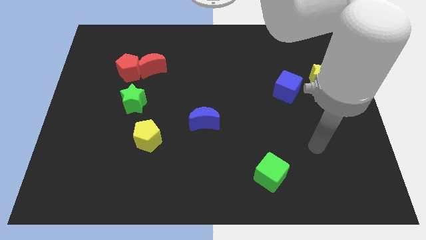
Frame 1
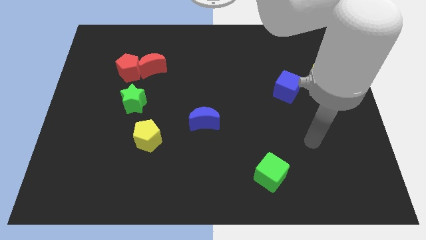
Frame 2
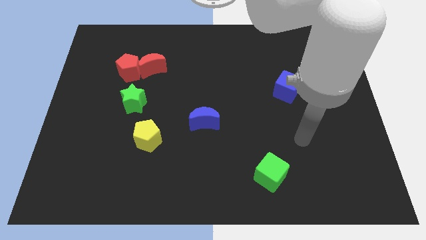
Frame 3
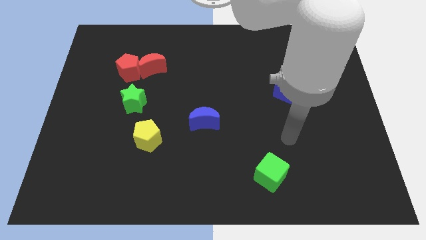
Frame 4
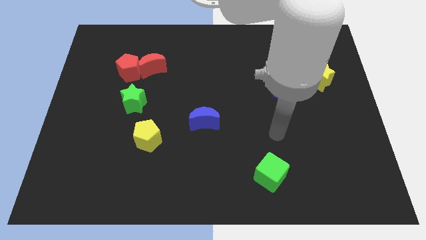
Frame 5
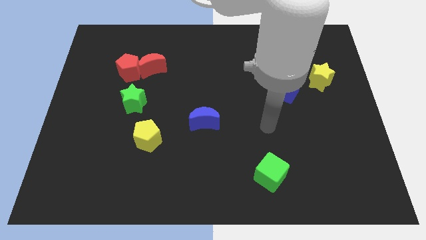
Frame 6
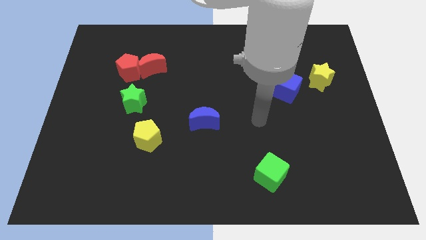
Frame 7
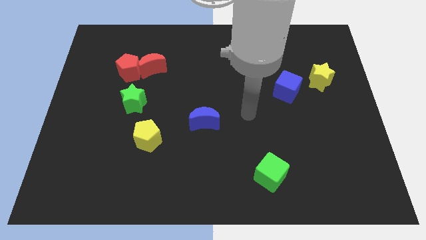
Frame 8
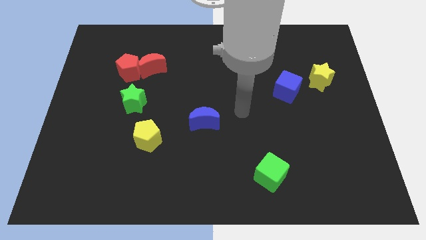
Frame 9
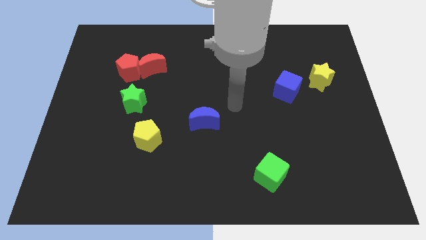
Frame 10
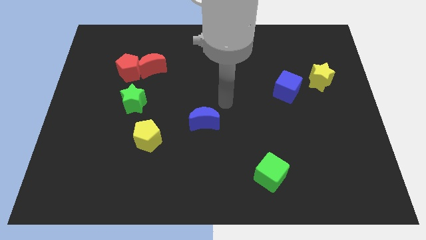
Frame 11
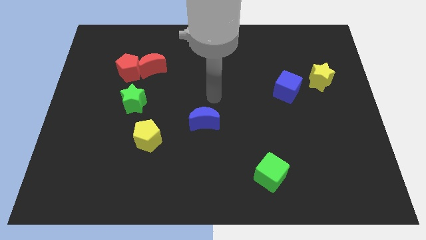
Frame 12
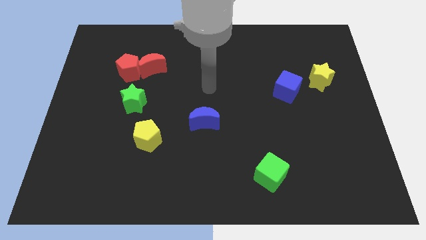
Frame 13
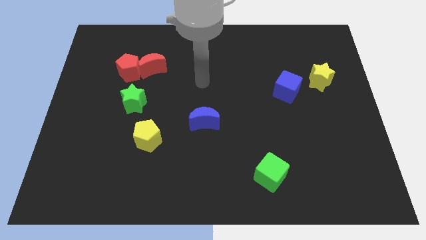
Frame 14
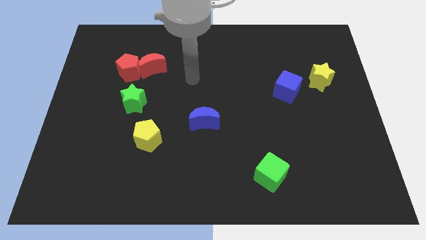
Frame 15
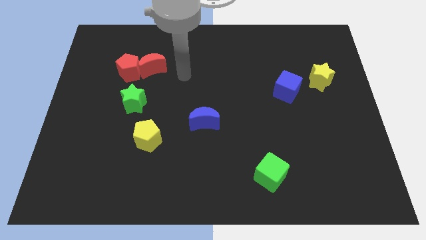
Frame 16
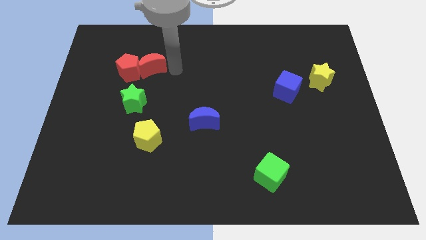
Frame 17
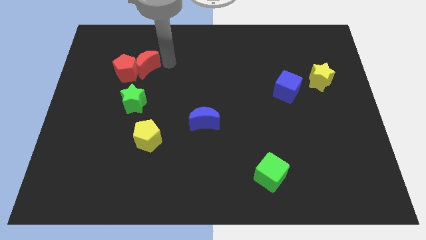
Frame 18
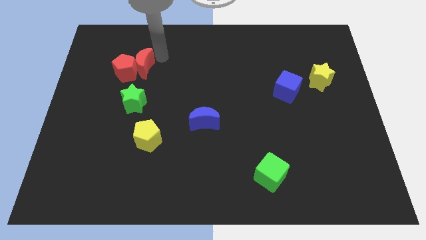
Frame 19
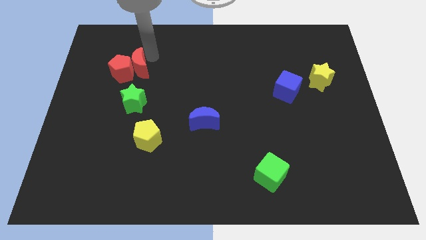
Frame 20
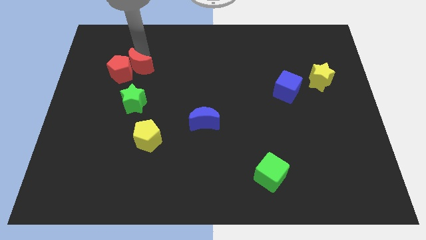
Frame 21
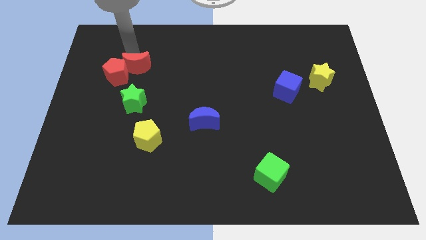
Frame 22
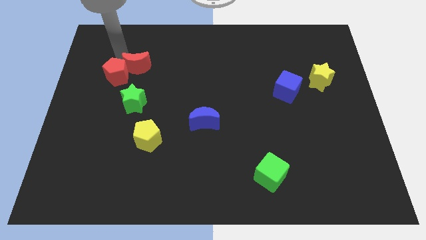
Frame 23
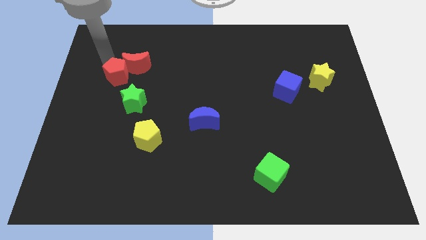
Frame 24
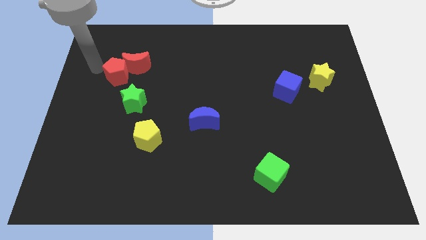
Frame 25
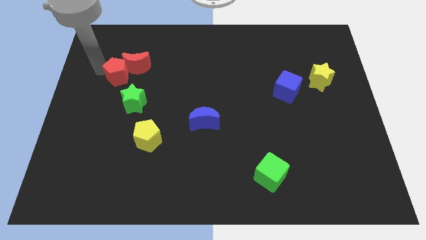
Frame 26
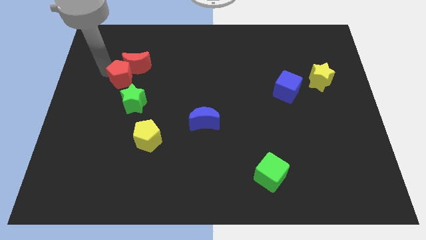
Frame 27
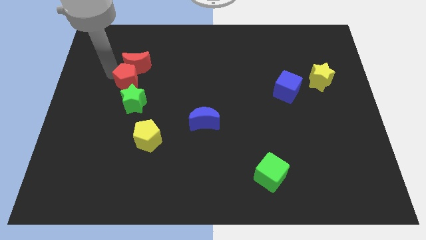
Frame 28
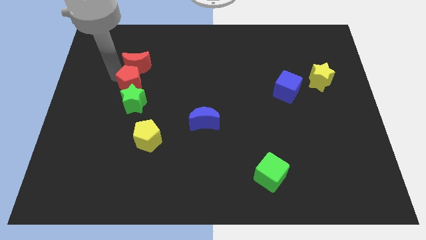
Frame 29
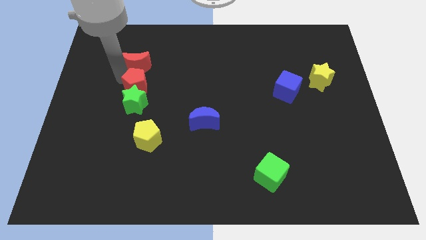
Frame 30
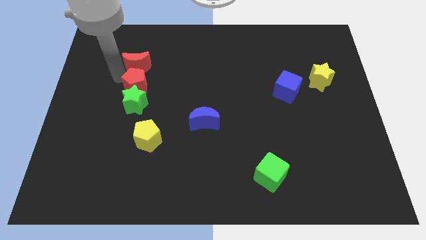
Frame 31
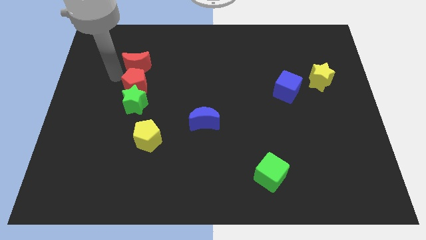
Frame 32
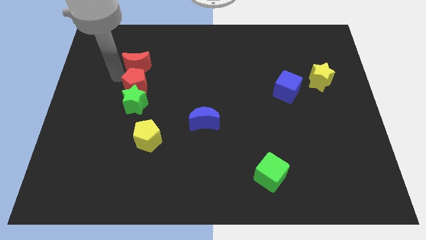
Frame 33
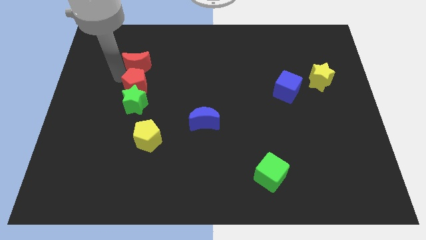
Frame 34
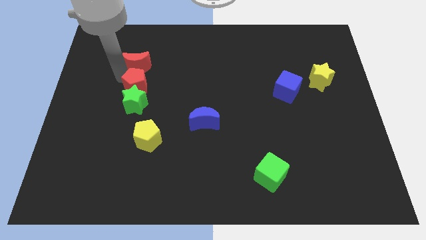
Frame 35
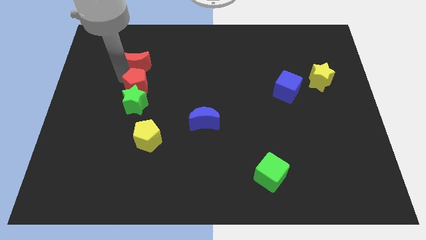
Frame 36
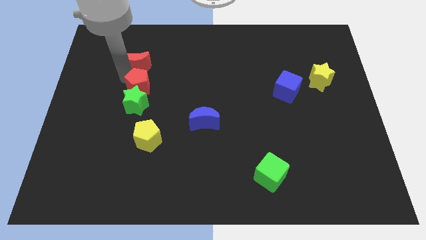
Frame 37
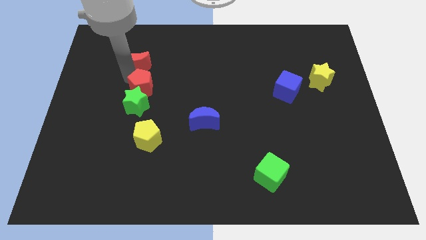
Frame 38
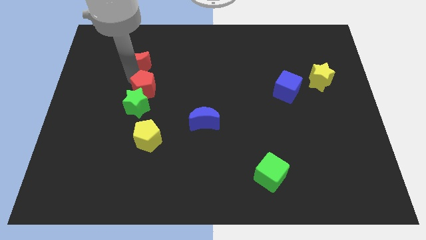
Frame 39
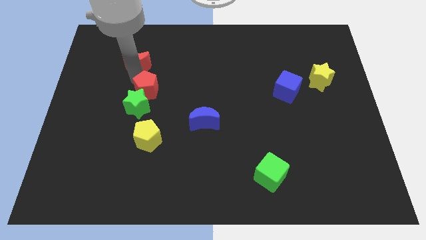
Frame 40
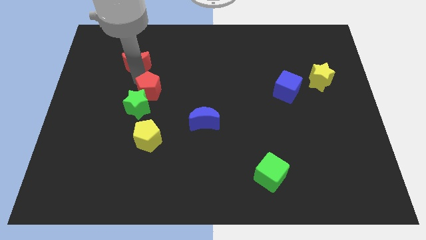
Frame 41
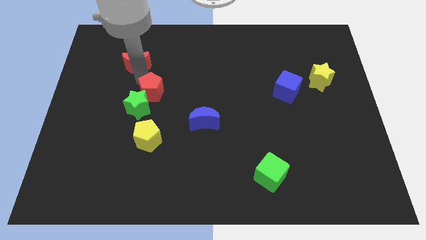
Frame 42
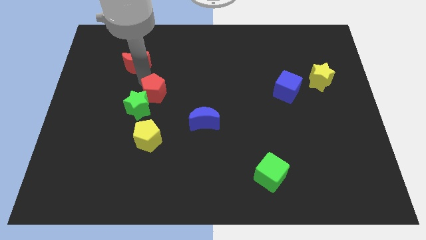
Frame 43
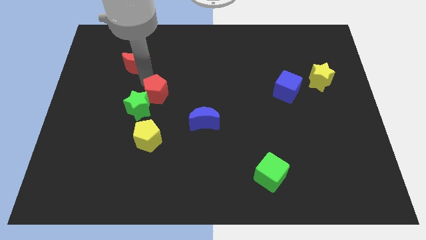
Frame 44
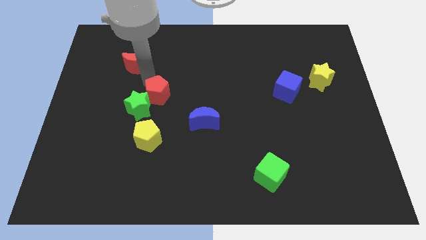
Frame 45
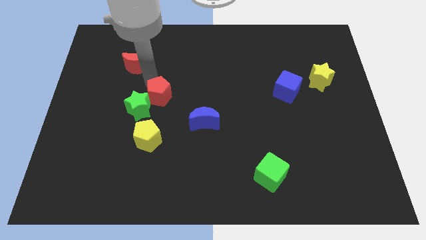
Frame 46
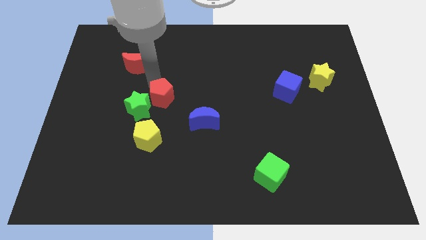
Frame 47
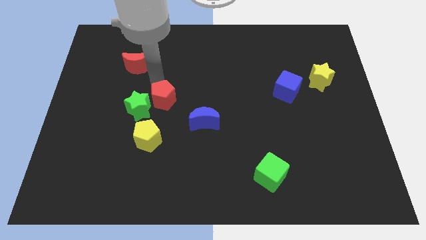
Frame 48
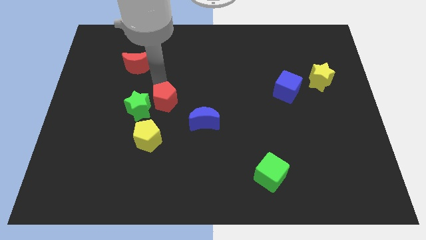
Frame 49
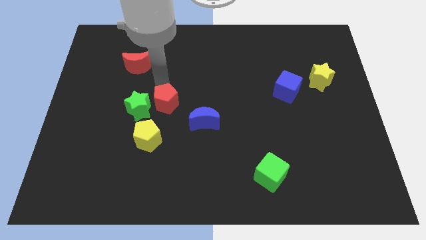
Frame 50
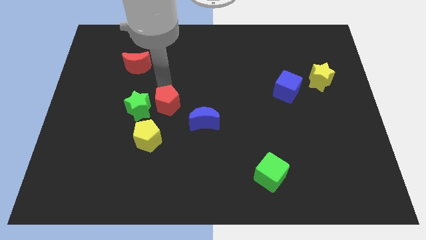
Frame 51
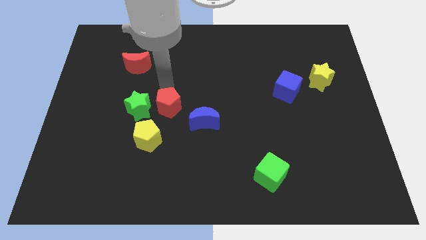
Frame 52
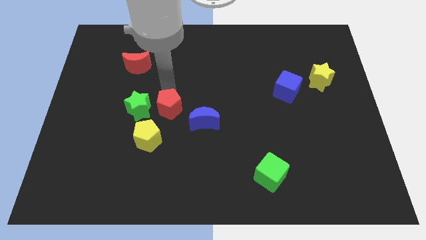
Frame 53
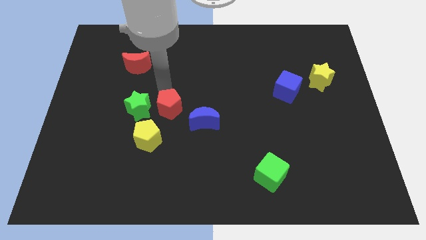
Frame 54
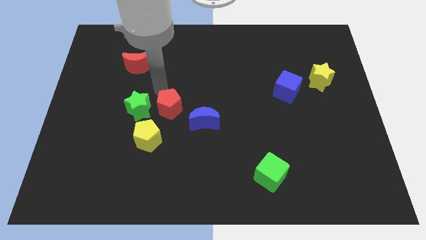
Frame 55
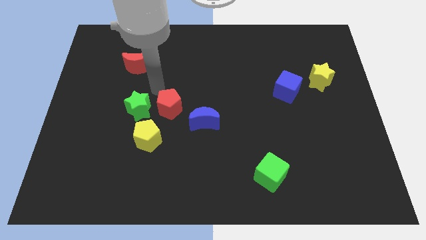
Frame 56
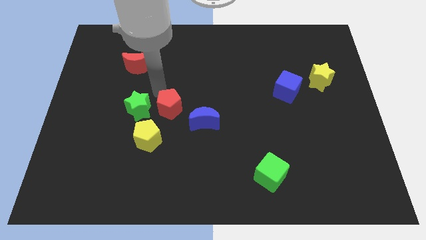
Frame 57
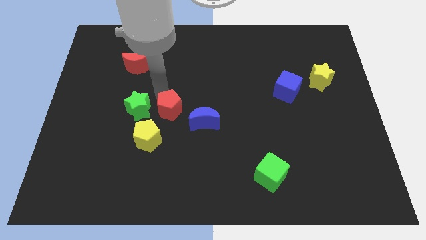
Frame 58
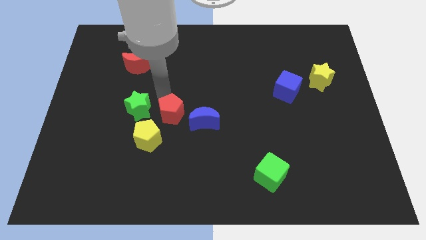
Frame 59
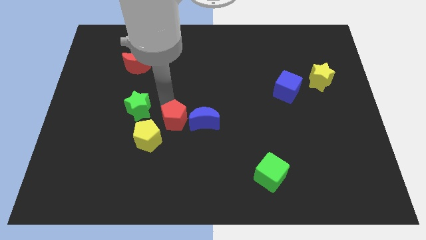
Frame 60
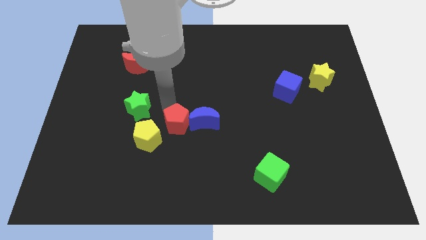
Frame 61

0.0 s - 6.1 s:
push the red pentagon down and right diagonally

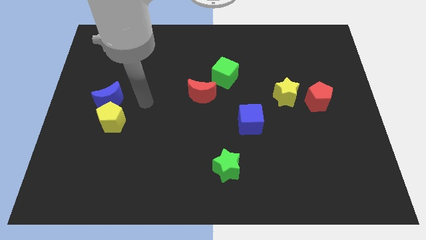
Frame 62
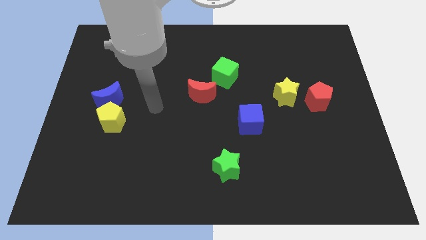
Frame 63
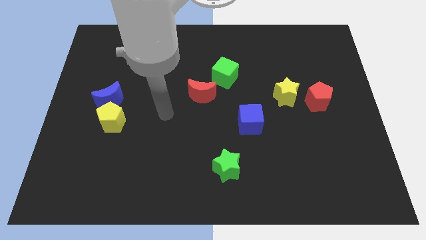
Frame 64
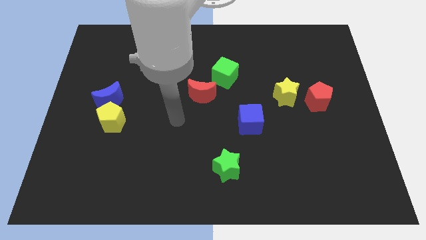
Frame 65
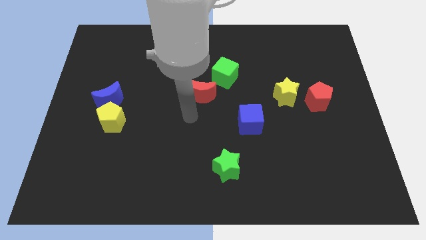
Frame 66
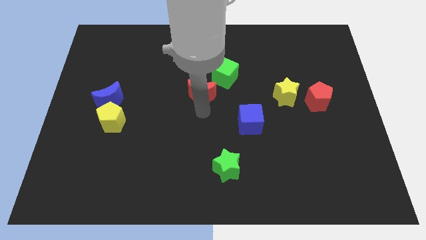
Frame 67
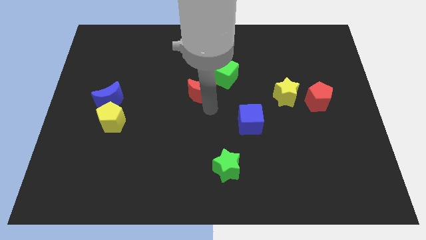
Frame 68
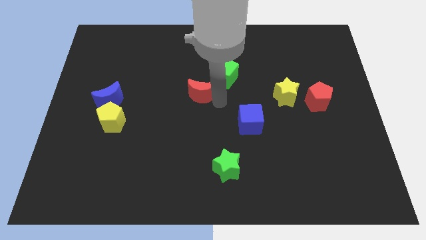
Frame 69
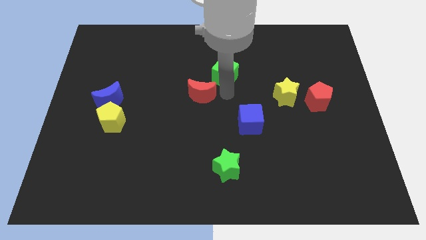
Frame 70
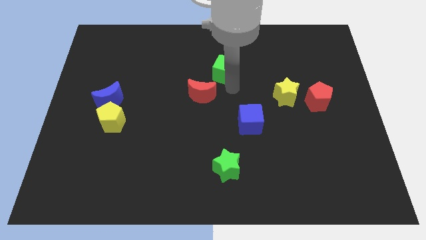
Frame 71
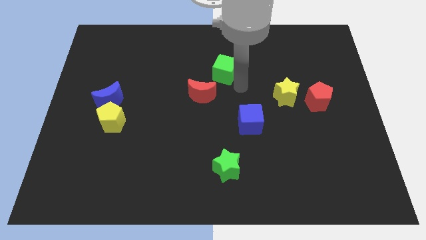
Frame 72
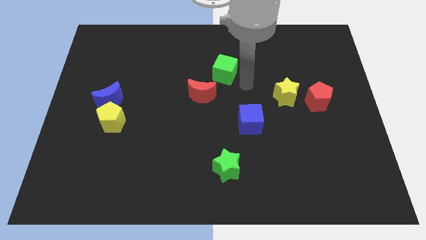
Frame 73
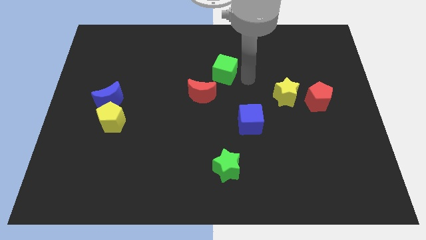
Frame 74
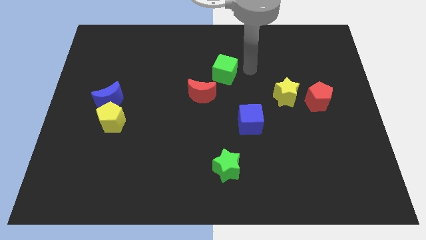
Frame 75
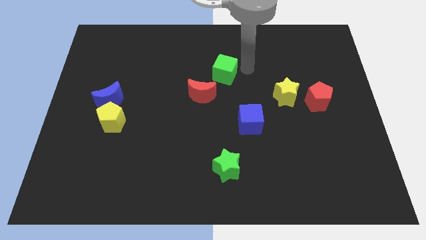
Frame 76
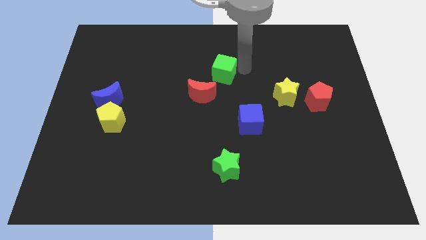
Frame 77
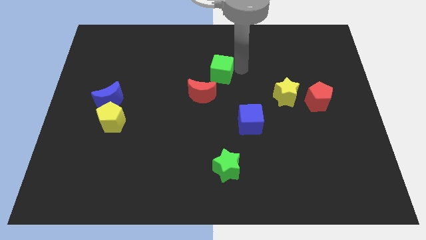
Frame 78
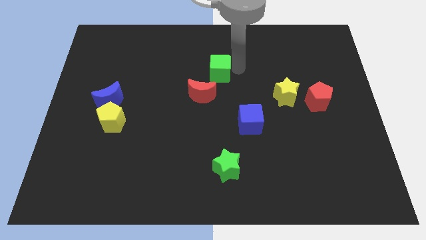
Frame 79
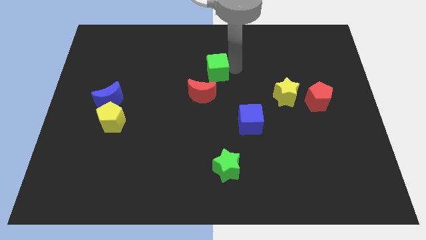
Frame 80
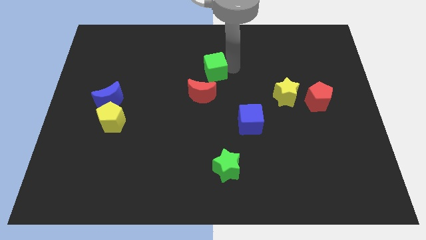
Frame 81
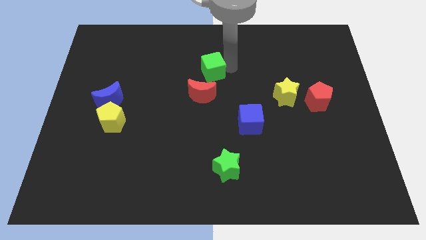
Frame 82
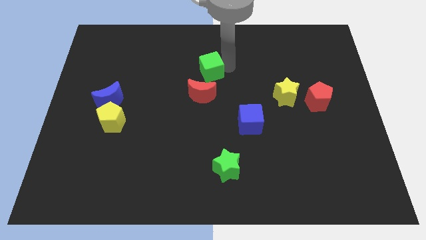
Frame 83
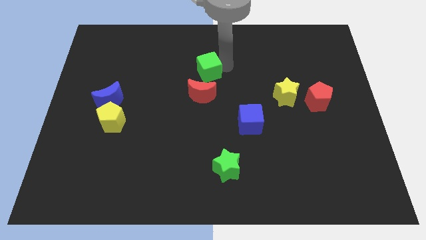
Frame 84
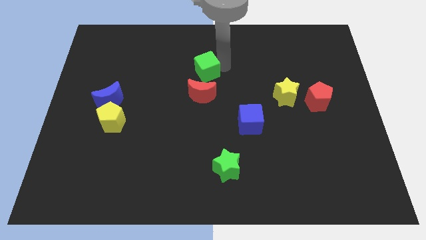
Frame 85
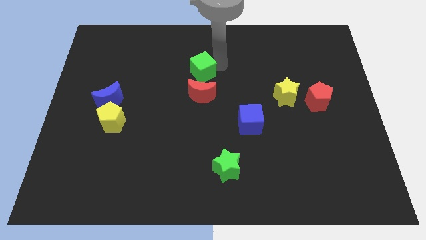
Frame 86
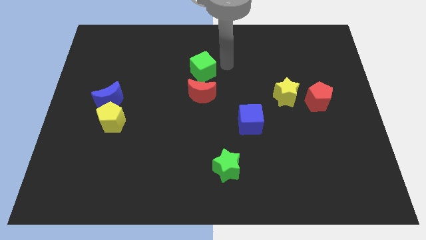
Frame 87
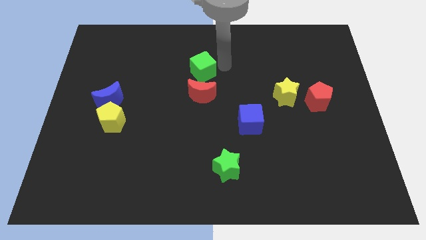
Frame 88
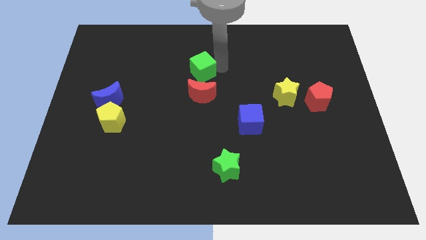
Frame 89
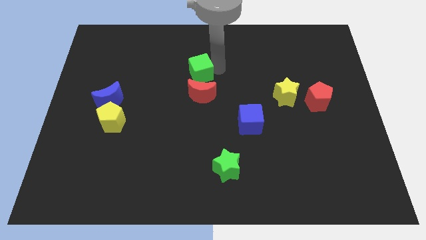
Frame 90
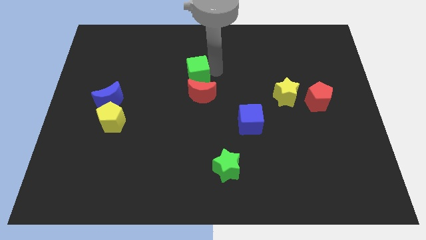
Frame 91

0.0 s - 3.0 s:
push the green cube left a little
